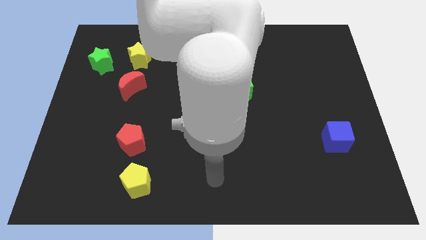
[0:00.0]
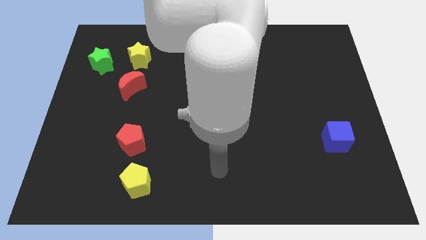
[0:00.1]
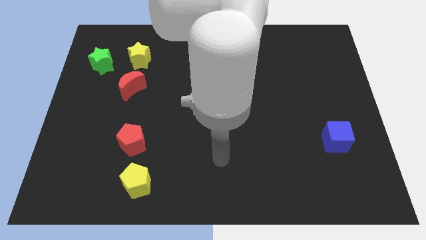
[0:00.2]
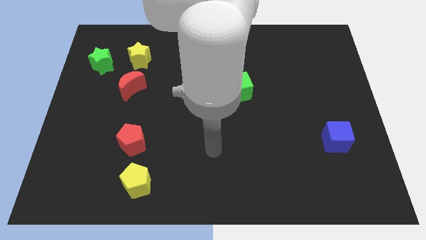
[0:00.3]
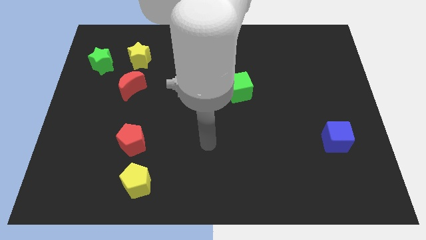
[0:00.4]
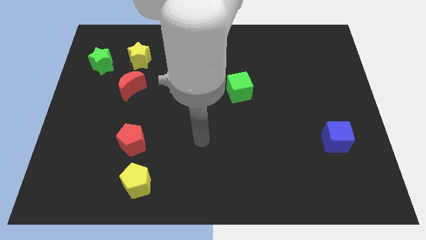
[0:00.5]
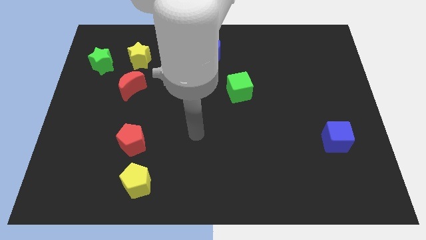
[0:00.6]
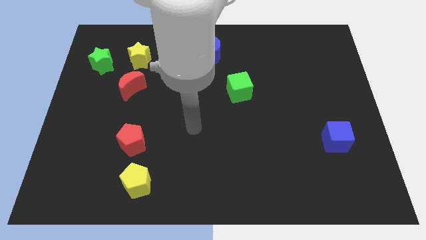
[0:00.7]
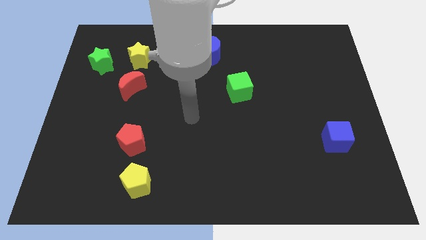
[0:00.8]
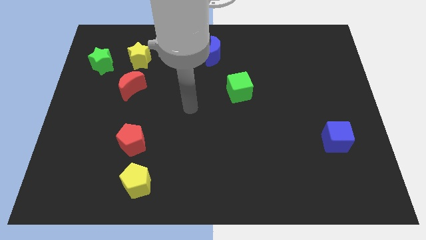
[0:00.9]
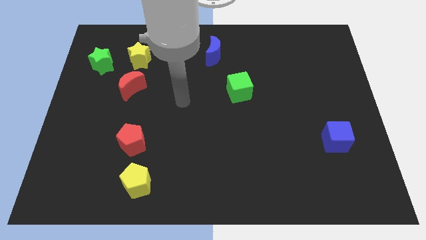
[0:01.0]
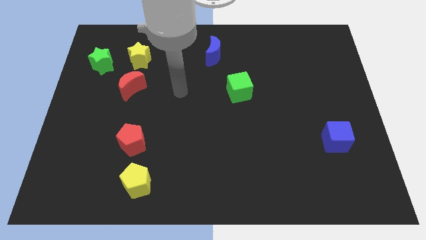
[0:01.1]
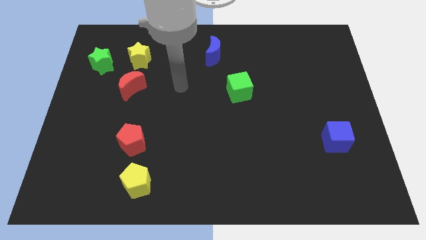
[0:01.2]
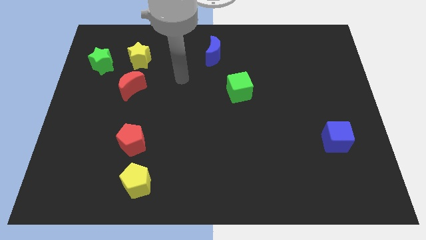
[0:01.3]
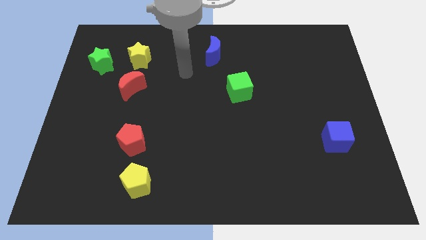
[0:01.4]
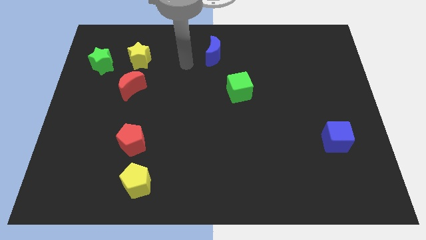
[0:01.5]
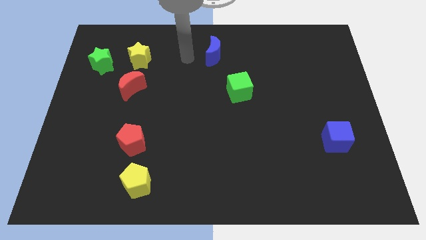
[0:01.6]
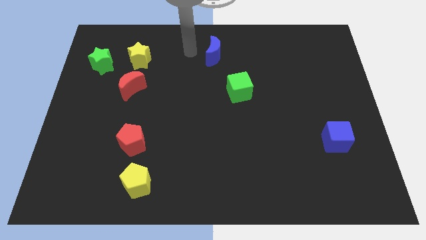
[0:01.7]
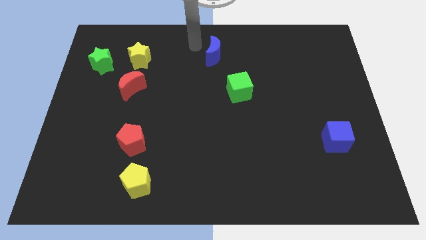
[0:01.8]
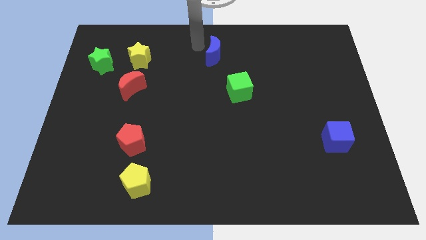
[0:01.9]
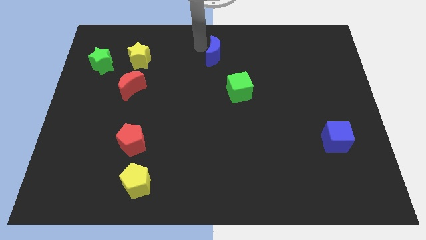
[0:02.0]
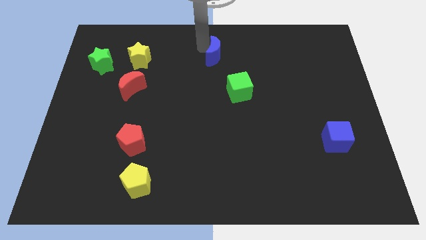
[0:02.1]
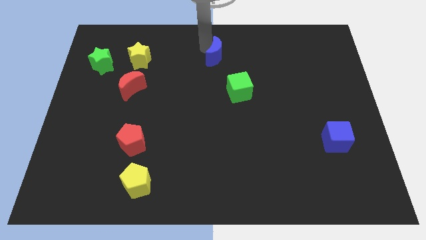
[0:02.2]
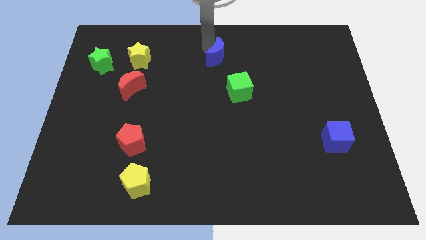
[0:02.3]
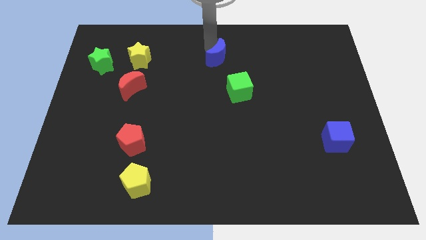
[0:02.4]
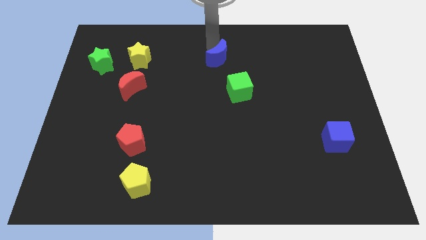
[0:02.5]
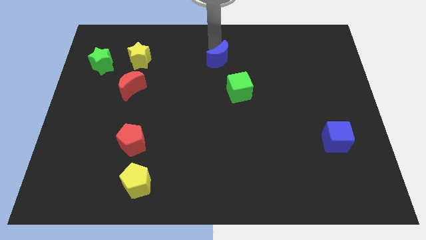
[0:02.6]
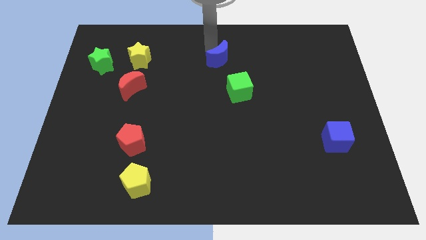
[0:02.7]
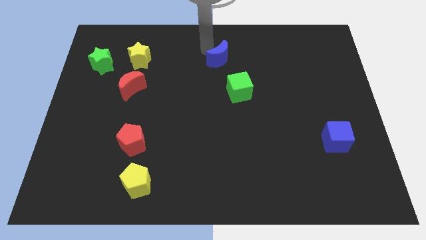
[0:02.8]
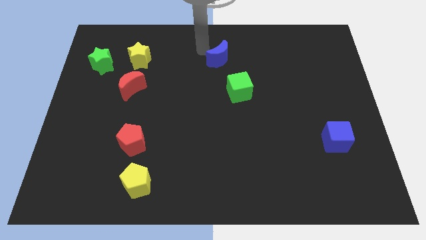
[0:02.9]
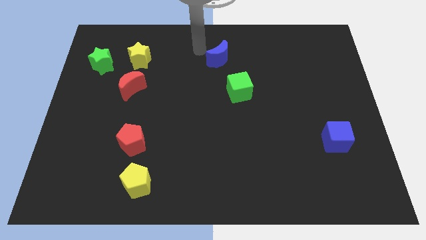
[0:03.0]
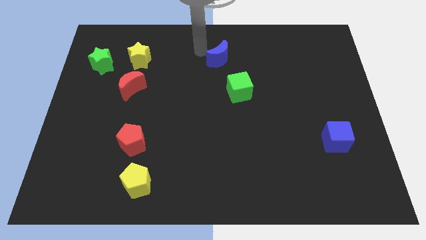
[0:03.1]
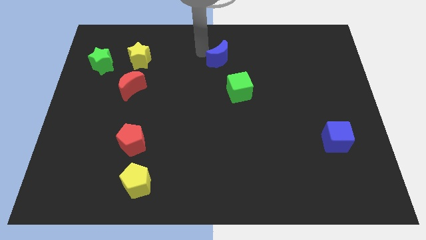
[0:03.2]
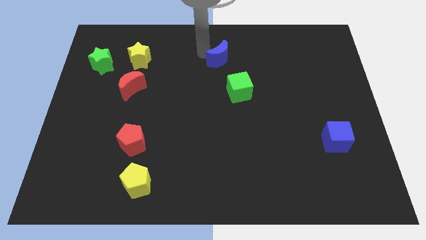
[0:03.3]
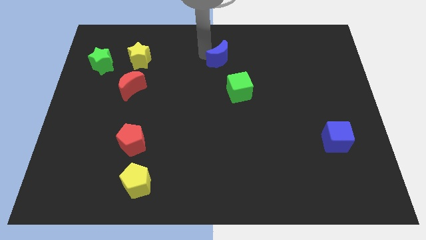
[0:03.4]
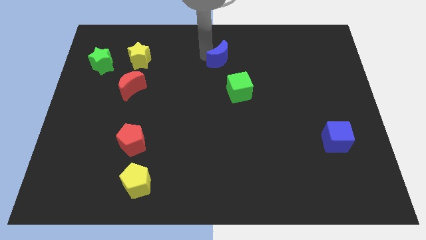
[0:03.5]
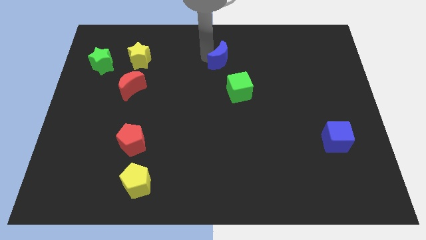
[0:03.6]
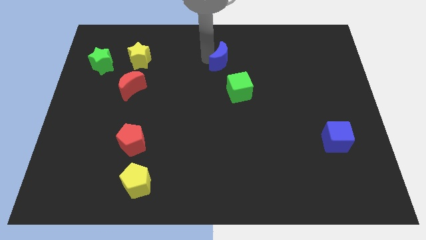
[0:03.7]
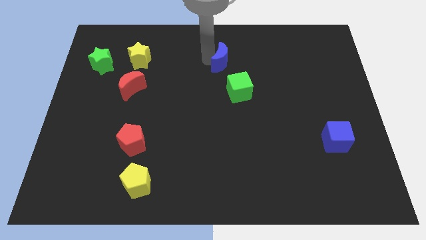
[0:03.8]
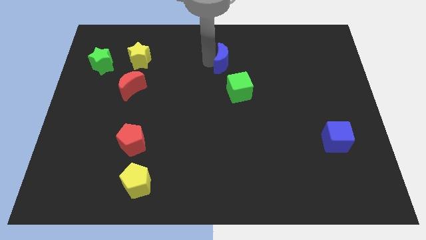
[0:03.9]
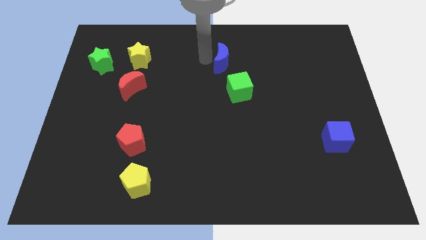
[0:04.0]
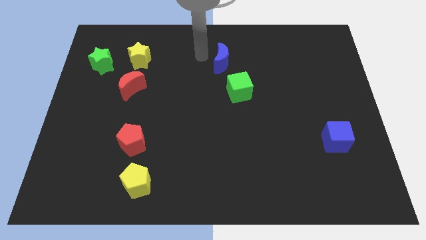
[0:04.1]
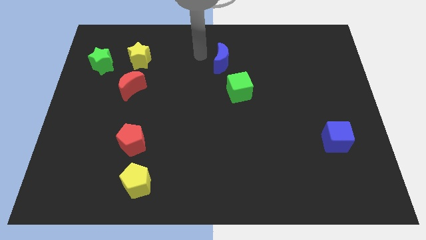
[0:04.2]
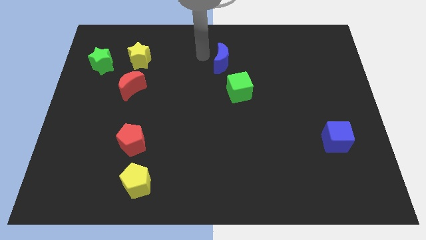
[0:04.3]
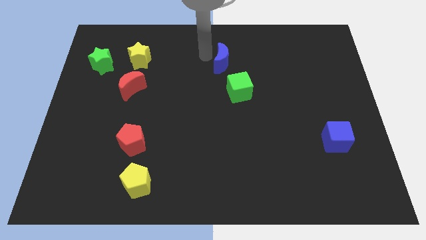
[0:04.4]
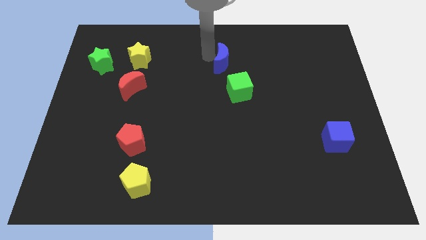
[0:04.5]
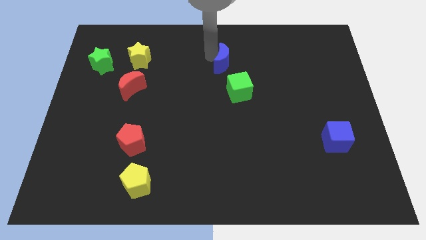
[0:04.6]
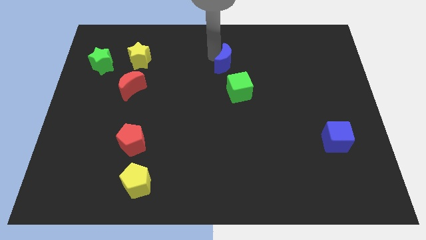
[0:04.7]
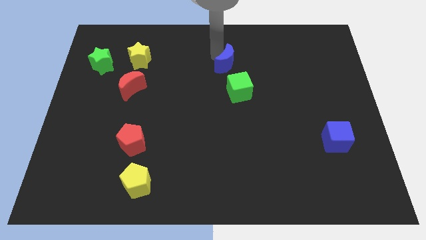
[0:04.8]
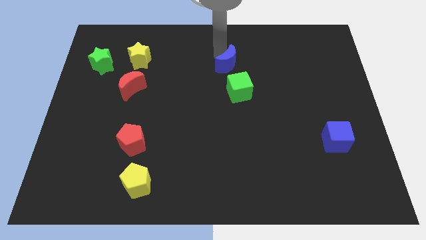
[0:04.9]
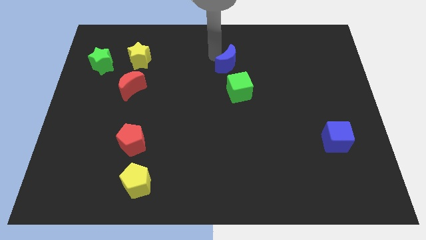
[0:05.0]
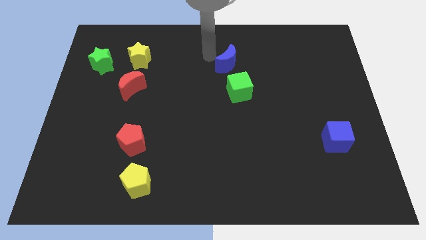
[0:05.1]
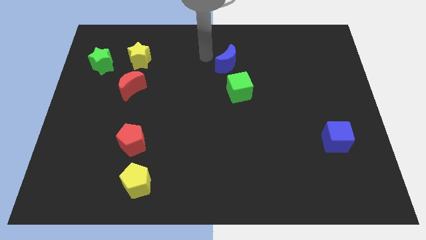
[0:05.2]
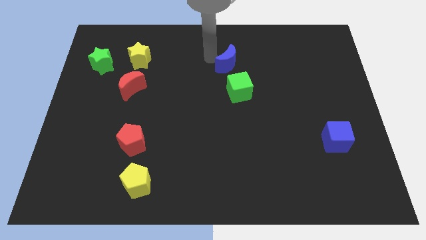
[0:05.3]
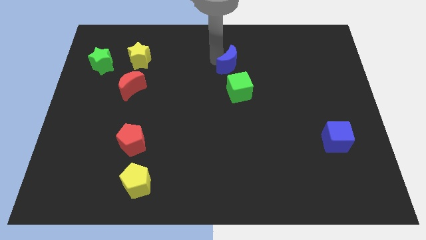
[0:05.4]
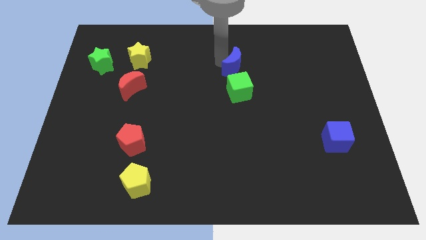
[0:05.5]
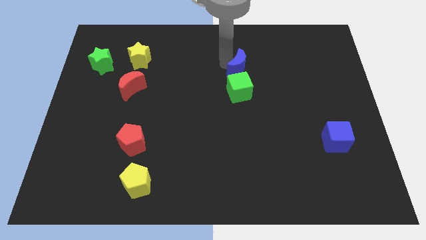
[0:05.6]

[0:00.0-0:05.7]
move the blue moon downwards and to the right diagonally a bit

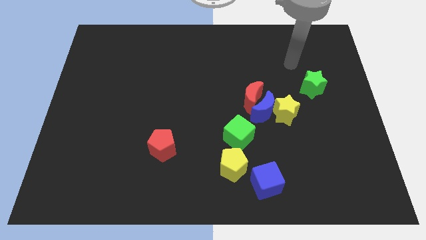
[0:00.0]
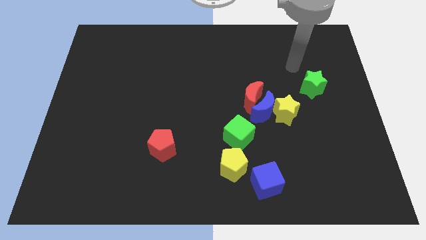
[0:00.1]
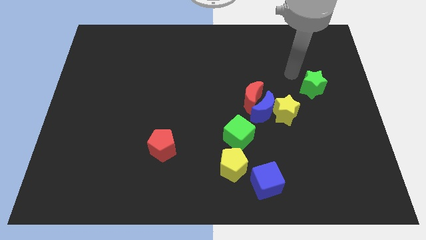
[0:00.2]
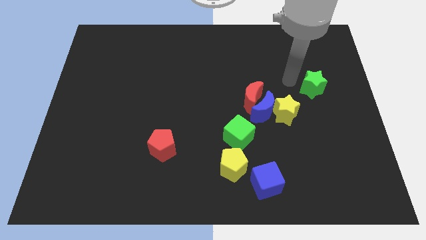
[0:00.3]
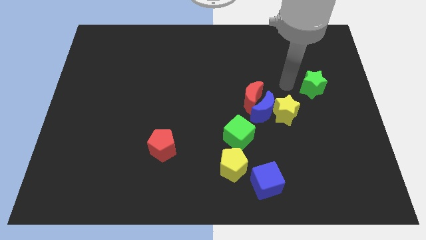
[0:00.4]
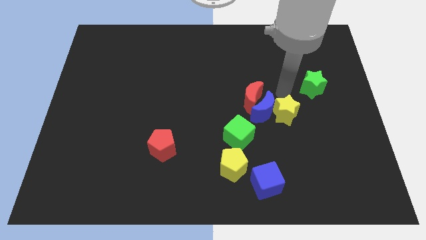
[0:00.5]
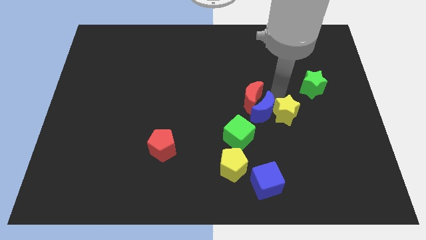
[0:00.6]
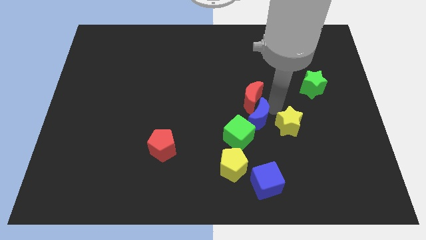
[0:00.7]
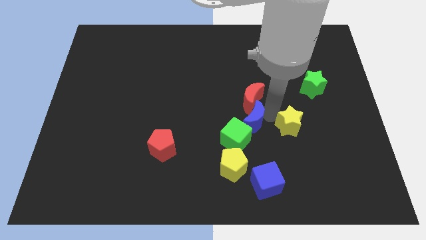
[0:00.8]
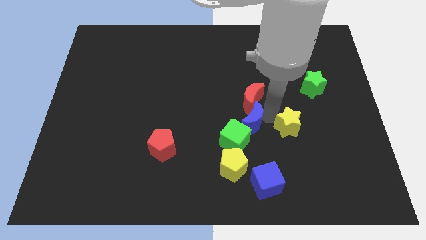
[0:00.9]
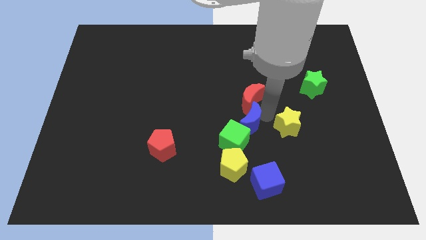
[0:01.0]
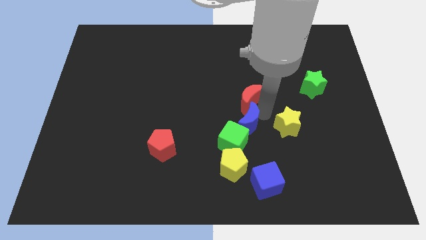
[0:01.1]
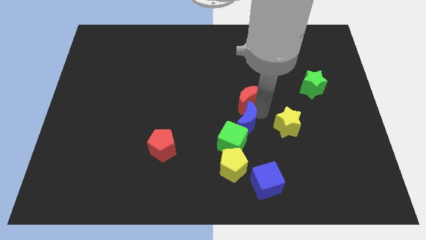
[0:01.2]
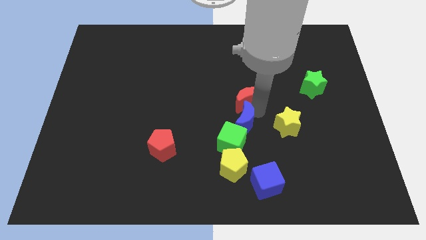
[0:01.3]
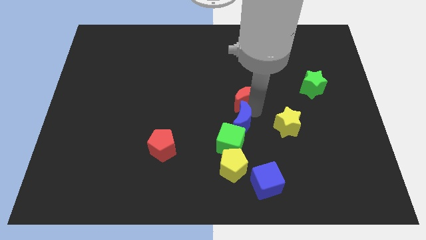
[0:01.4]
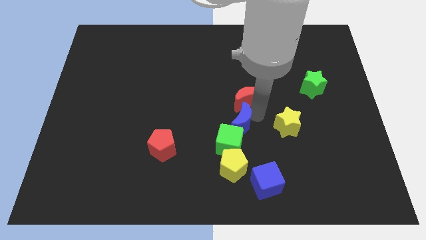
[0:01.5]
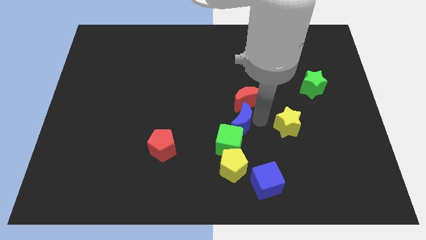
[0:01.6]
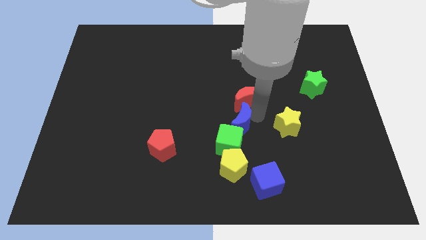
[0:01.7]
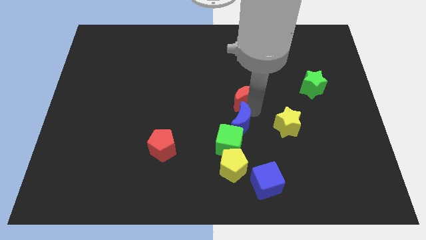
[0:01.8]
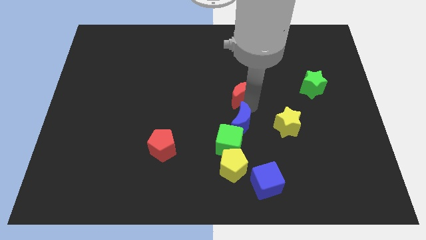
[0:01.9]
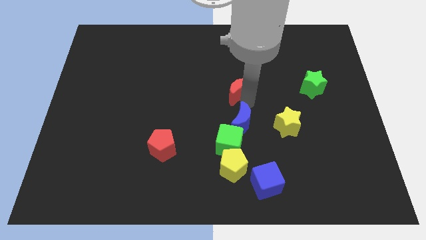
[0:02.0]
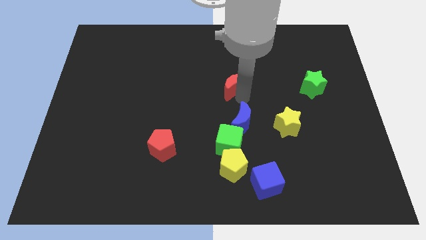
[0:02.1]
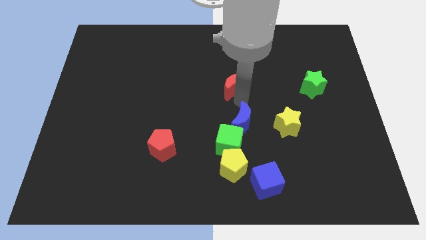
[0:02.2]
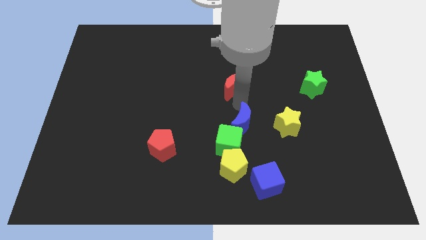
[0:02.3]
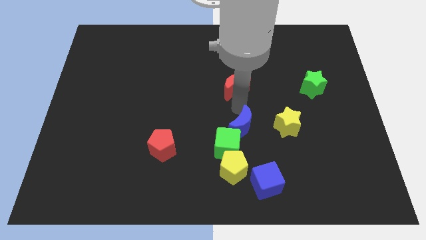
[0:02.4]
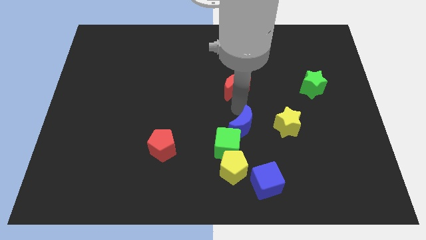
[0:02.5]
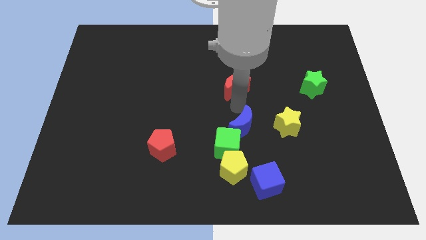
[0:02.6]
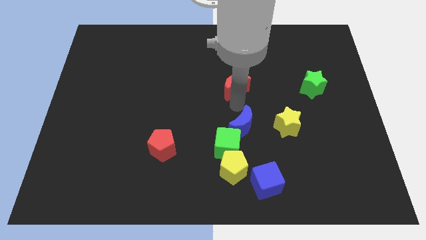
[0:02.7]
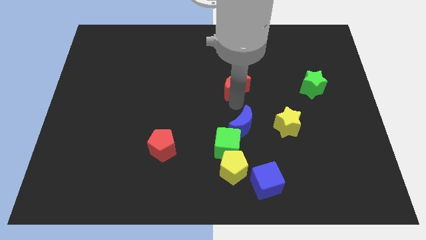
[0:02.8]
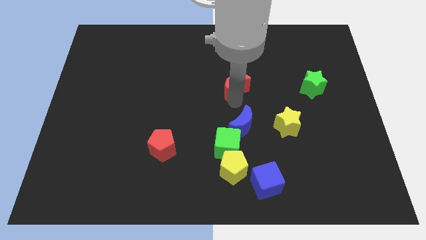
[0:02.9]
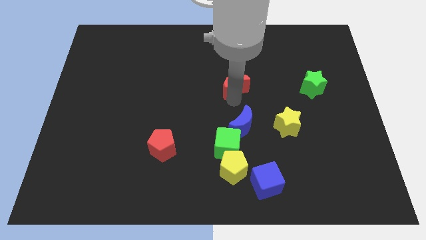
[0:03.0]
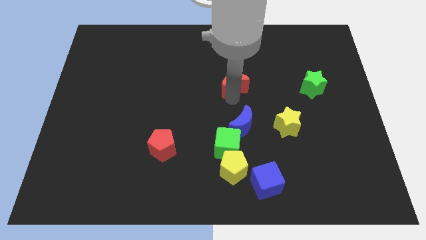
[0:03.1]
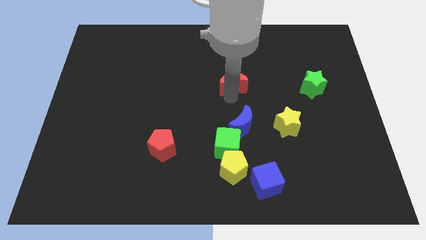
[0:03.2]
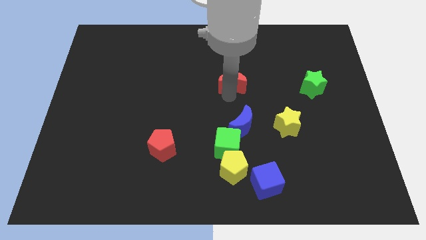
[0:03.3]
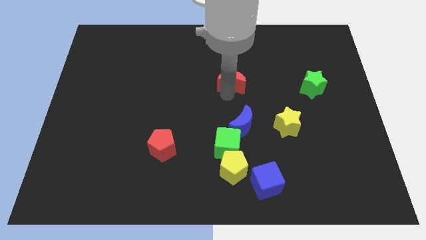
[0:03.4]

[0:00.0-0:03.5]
move the red moon diagonally up and to the left a little
